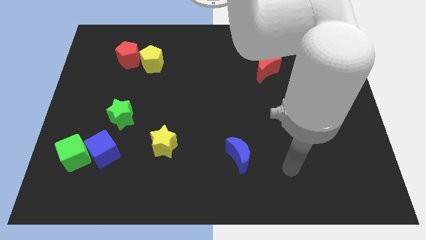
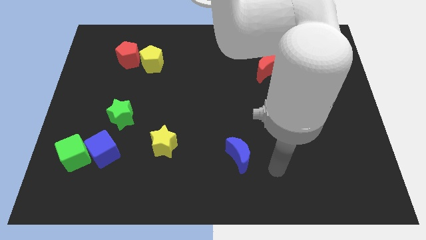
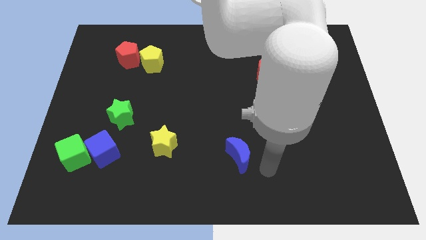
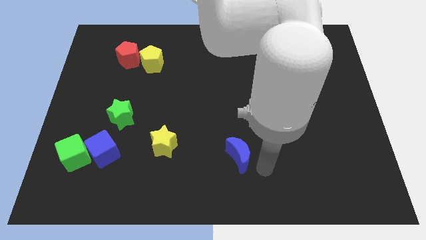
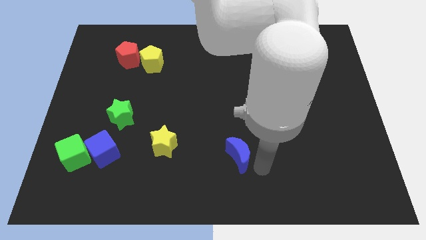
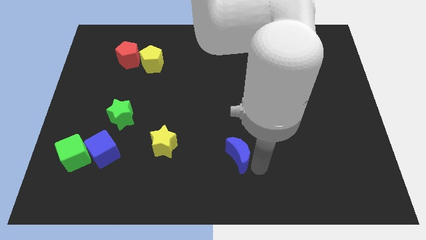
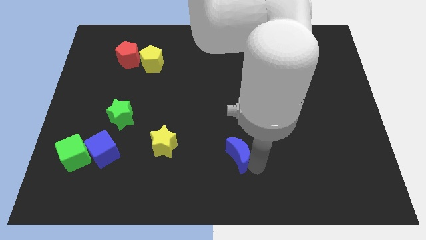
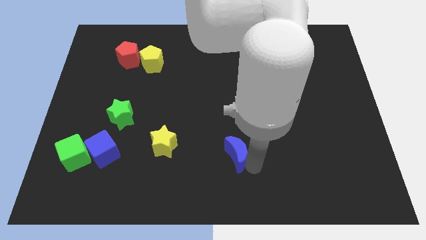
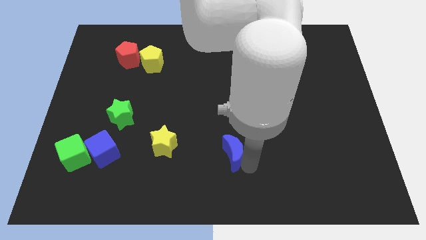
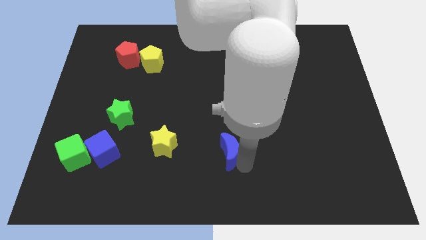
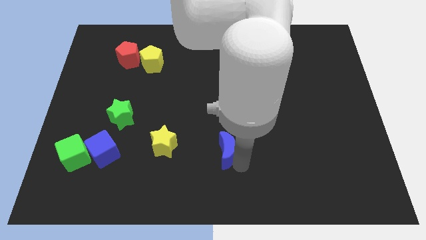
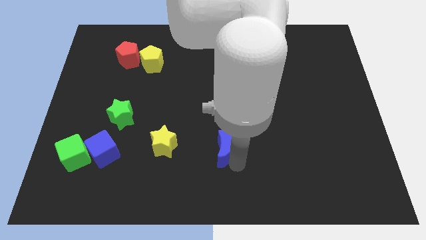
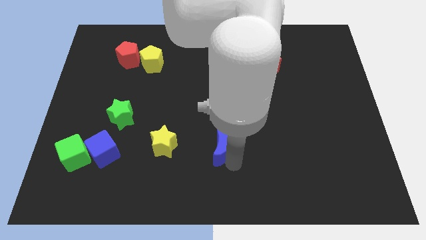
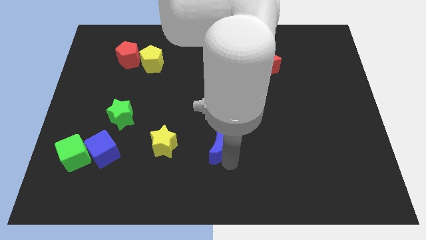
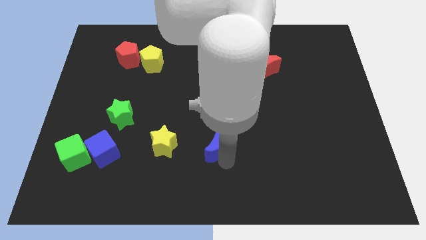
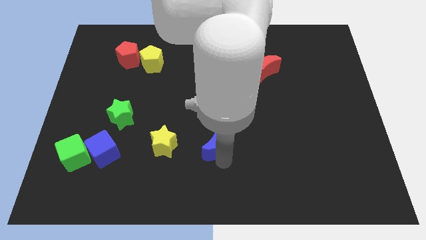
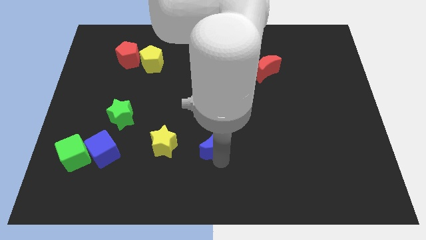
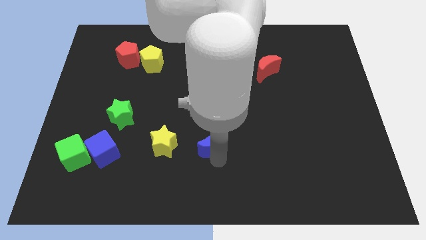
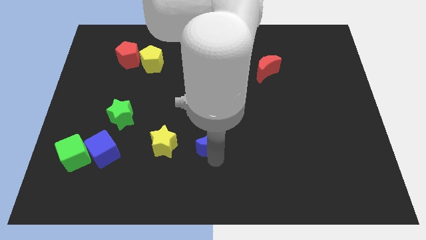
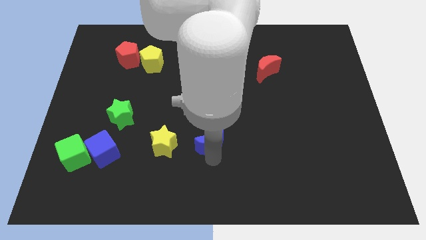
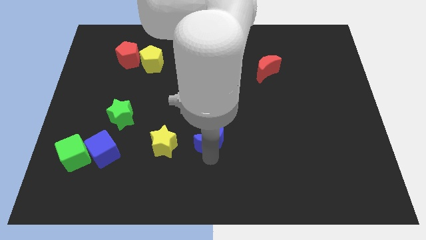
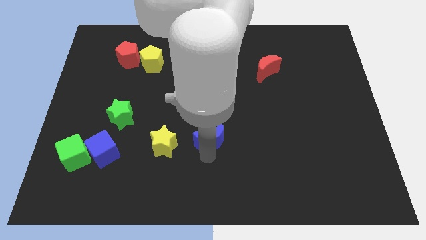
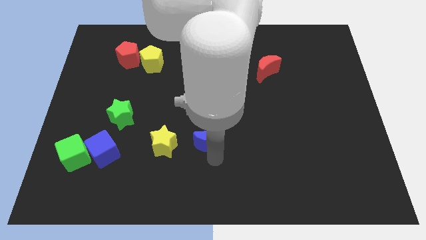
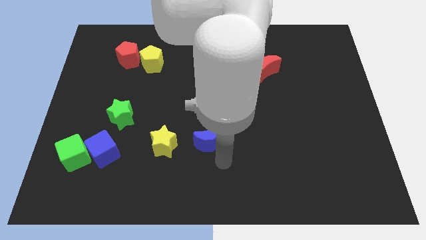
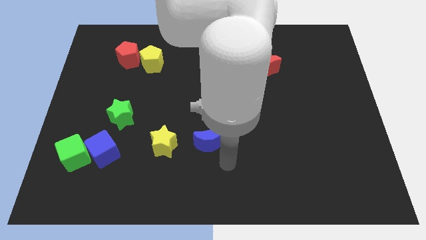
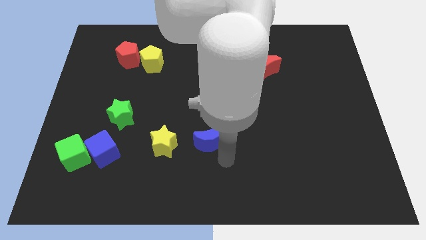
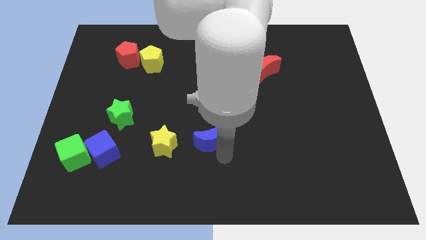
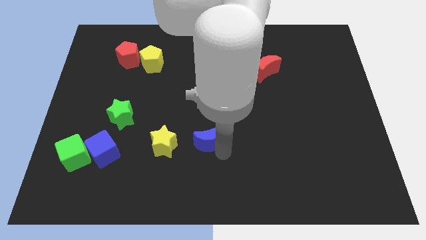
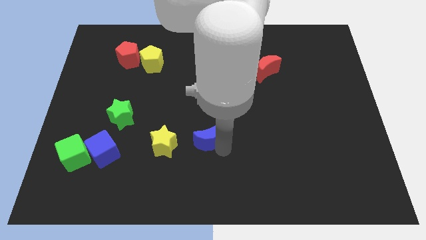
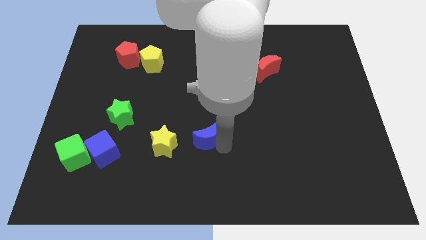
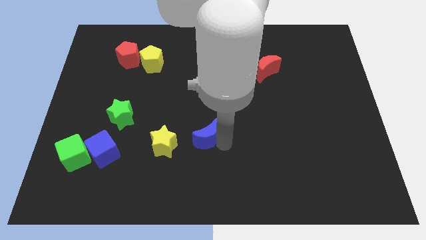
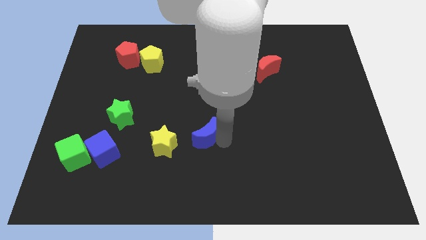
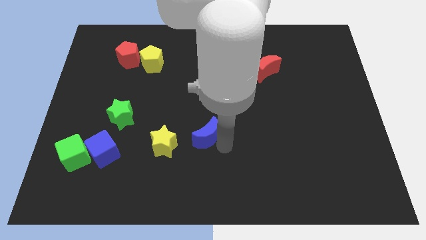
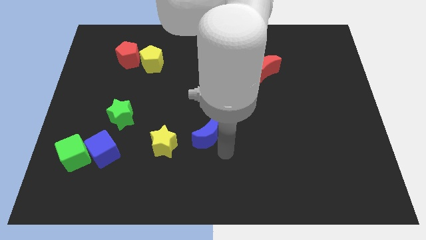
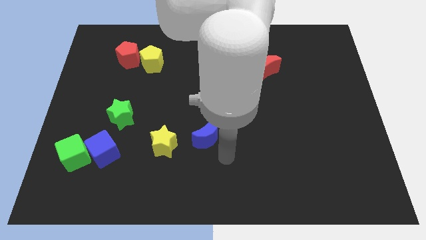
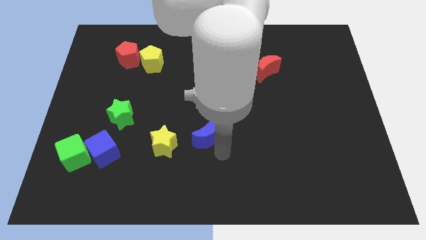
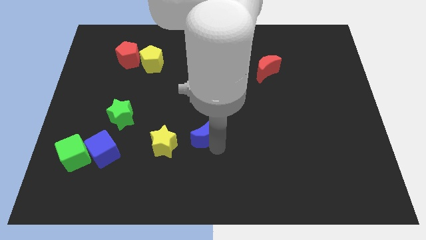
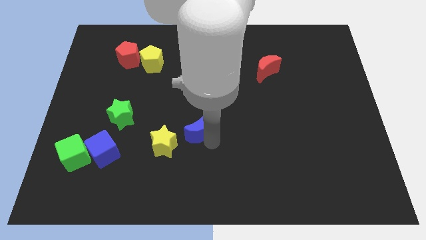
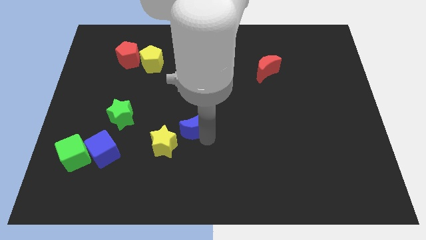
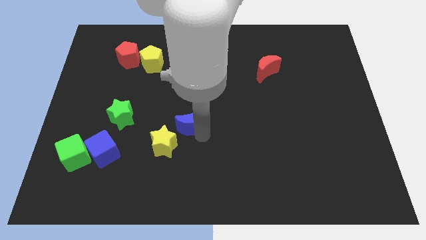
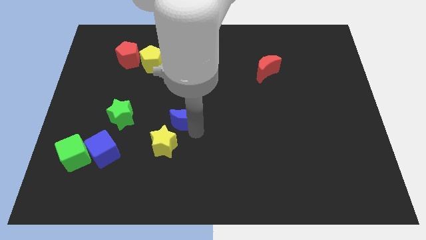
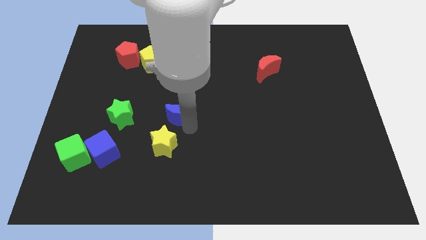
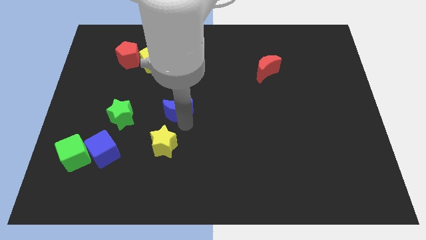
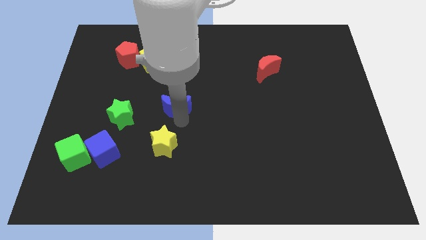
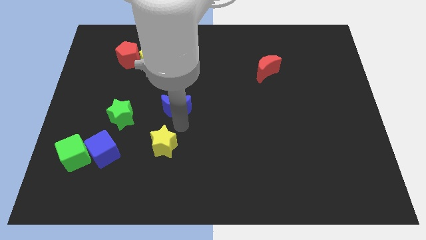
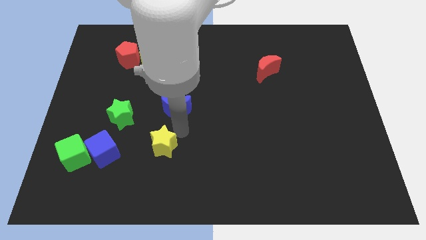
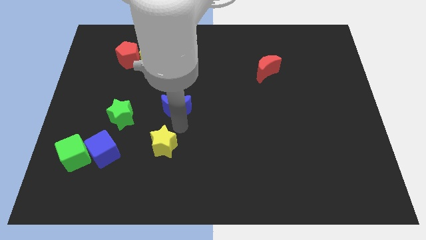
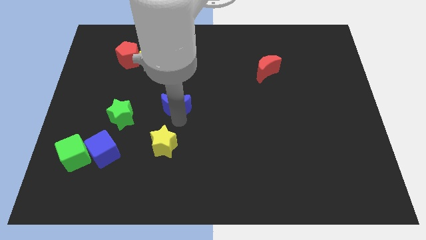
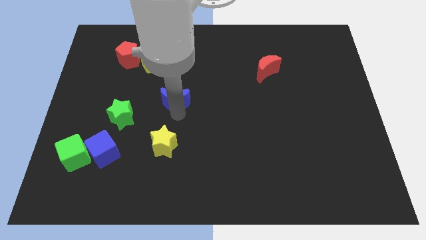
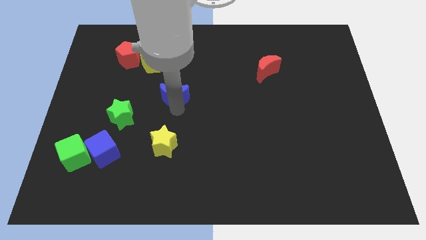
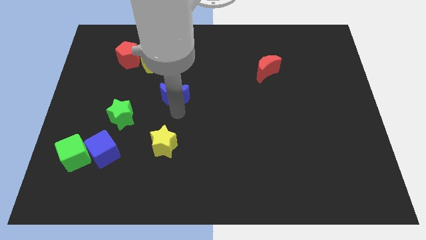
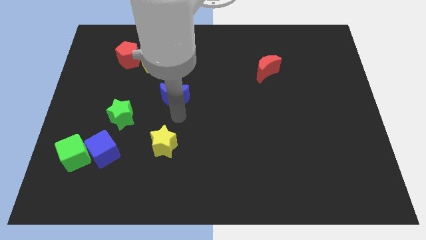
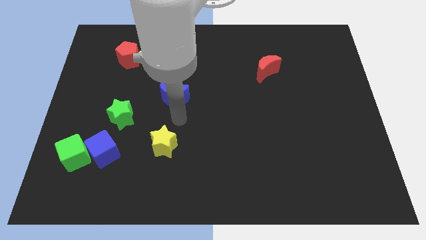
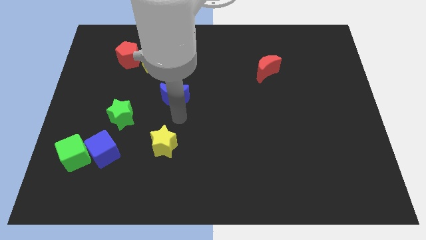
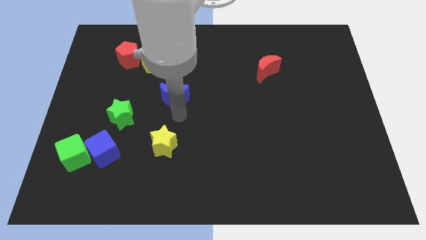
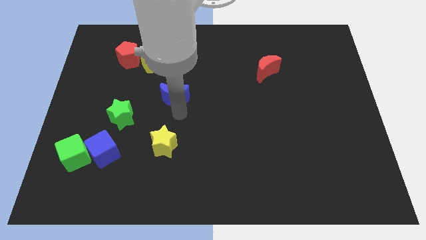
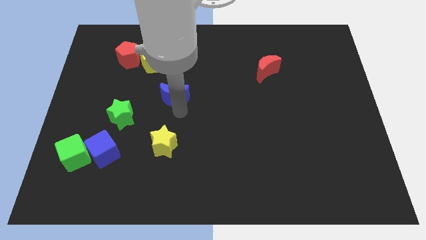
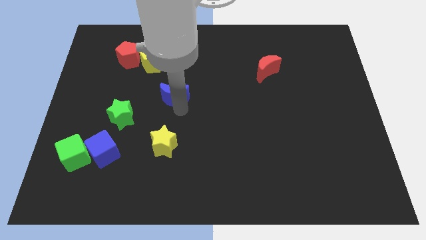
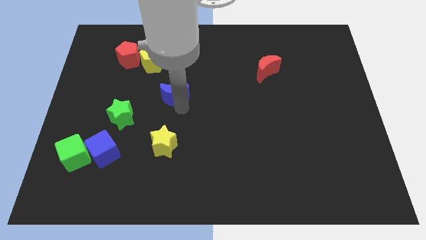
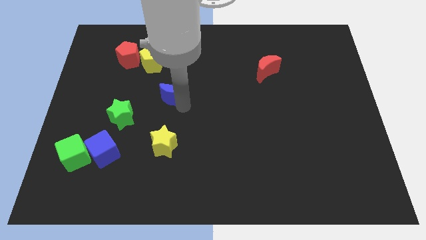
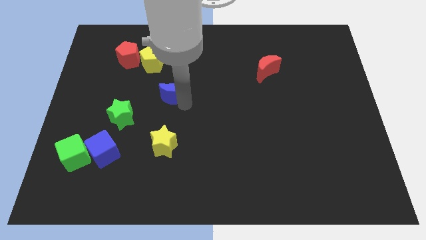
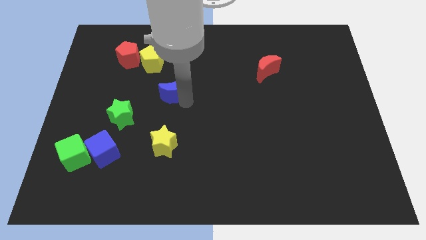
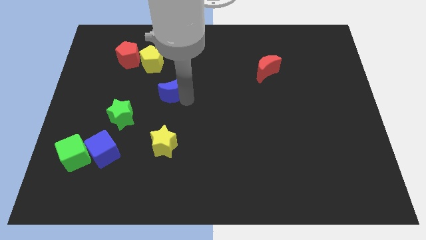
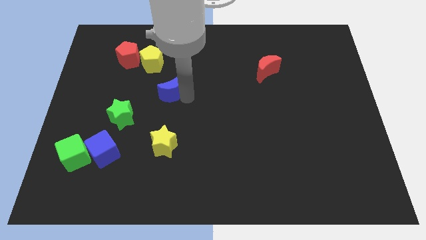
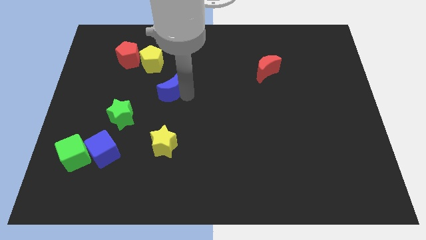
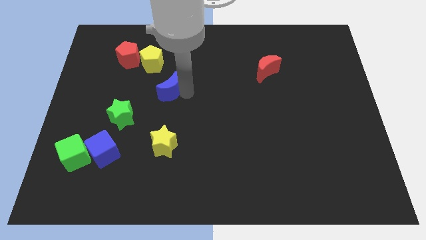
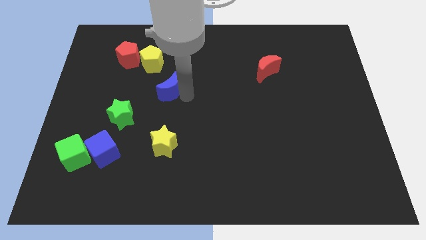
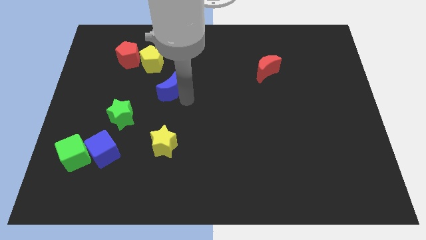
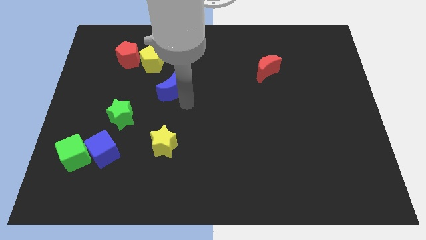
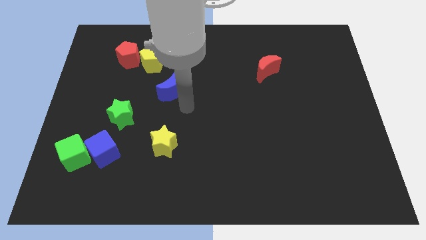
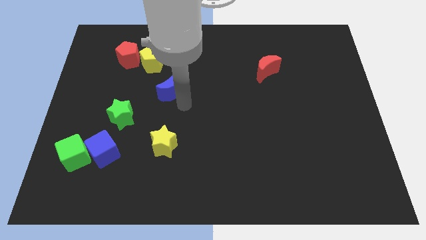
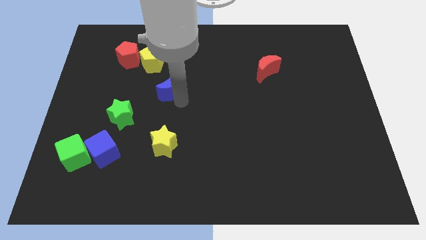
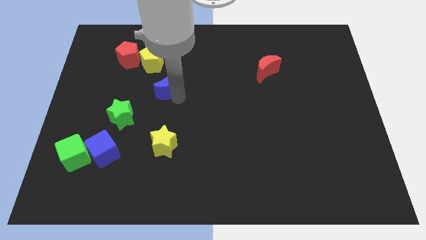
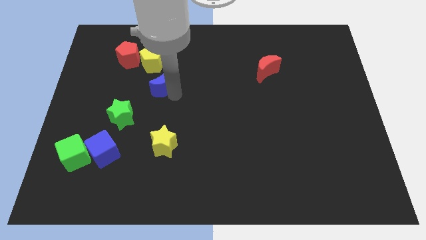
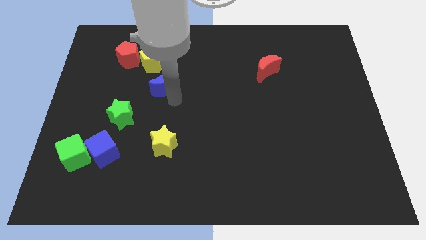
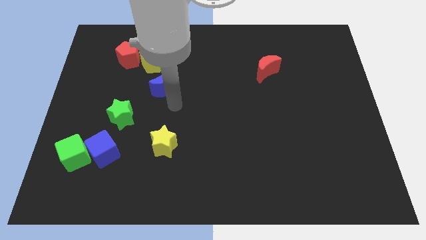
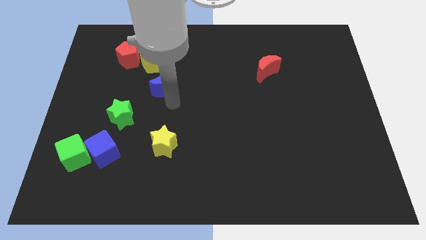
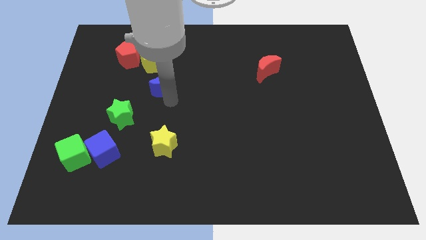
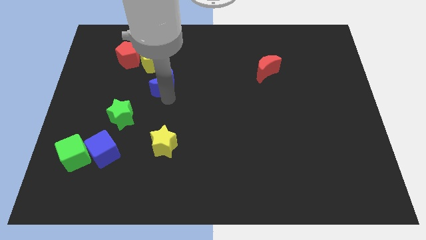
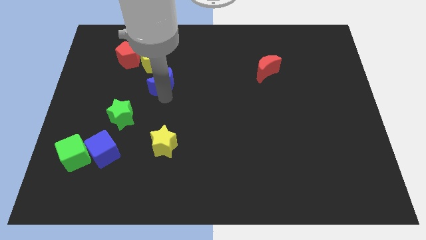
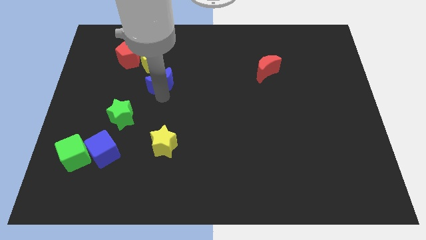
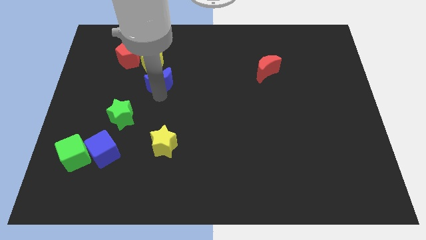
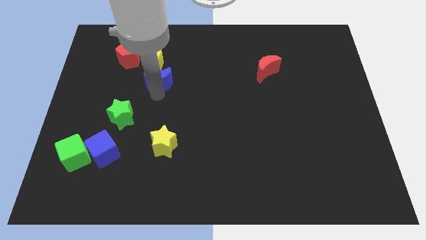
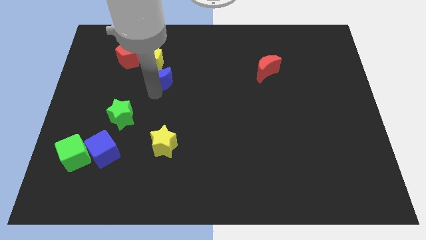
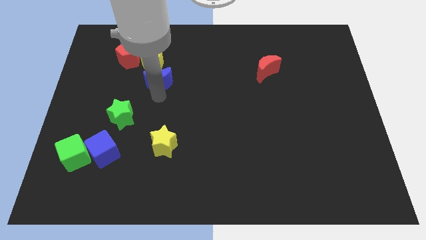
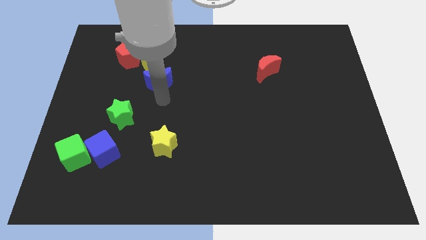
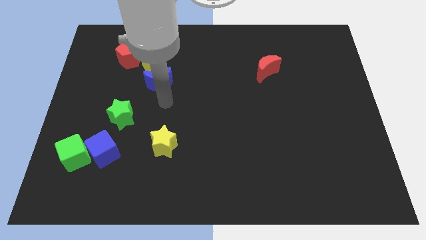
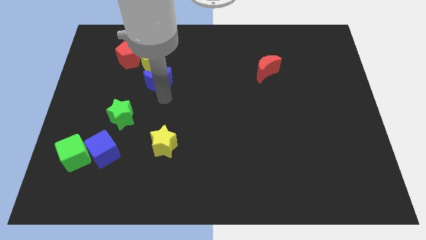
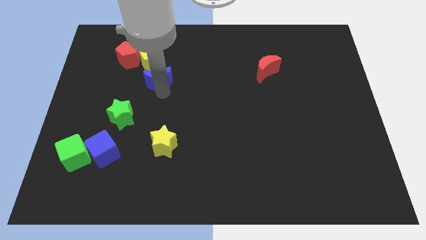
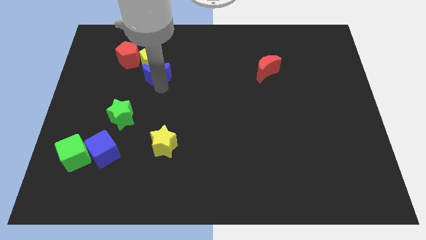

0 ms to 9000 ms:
put the blue moon next to the yellow pentagon
